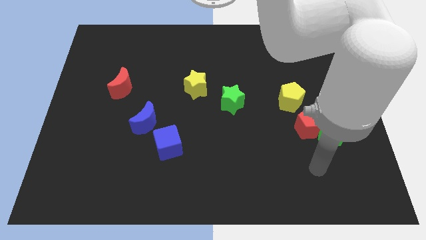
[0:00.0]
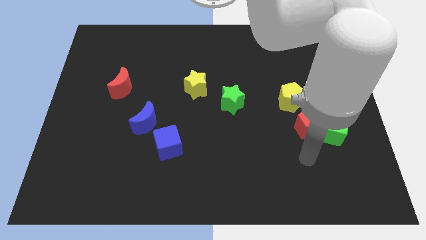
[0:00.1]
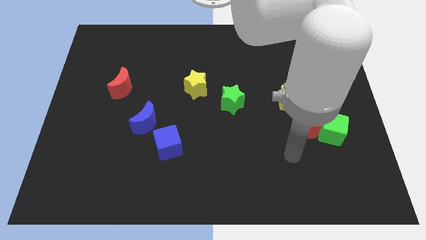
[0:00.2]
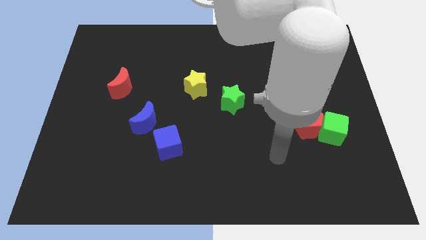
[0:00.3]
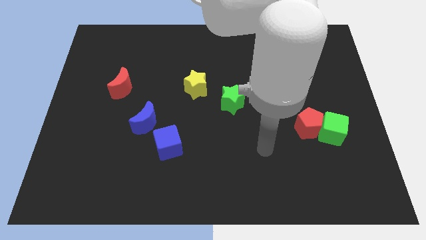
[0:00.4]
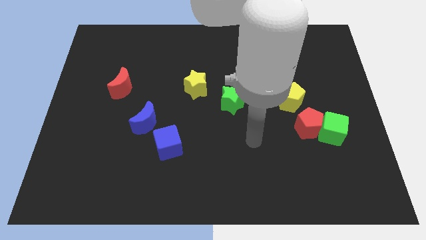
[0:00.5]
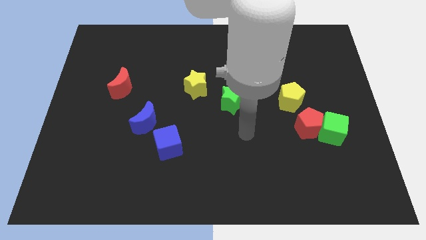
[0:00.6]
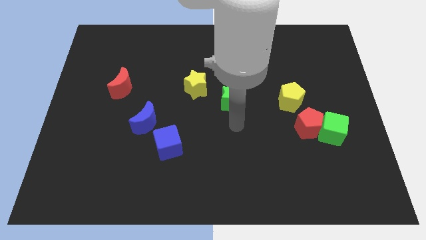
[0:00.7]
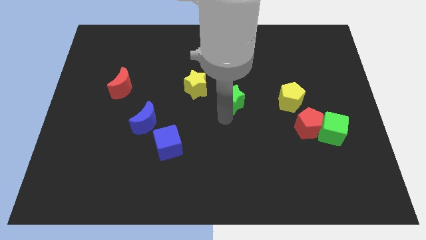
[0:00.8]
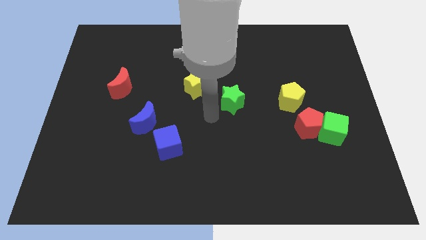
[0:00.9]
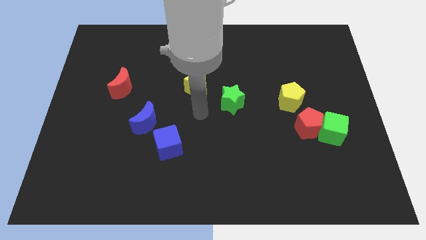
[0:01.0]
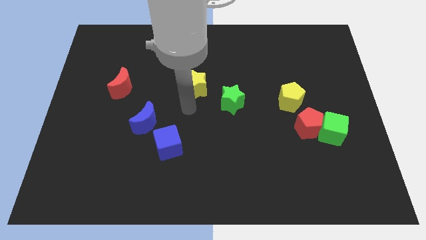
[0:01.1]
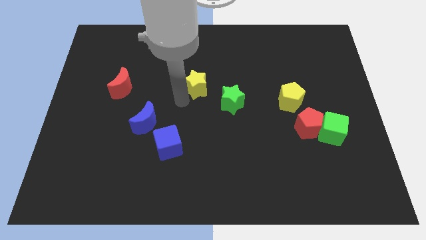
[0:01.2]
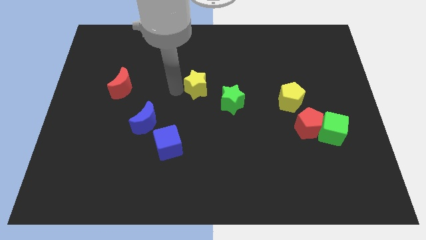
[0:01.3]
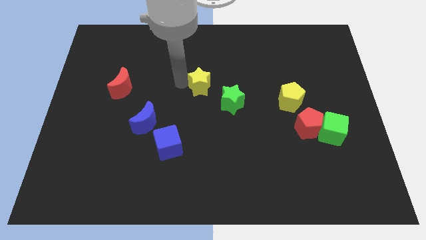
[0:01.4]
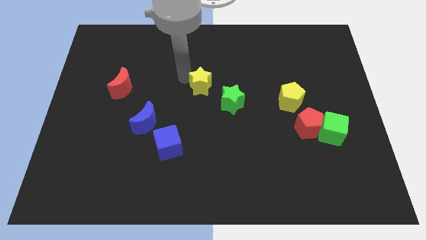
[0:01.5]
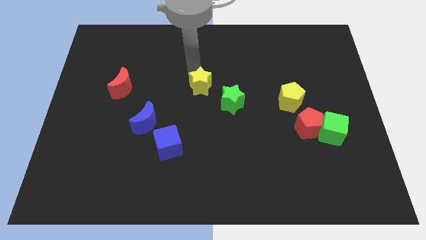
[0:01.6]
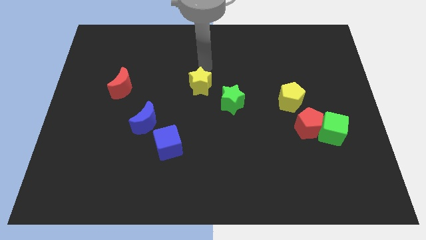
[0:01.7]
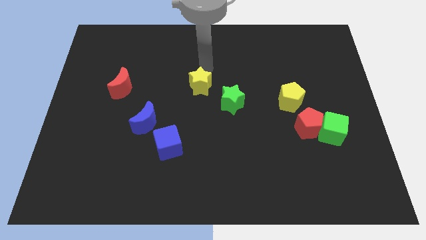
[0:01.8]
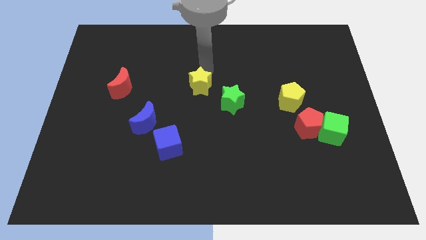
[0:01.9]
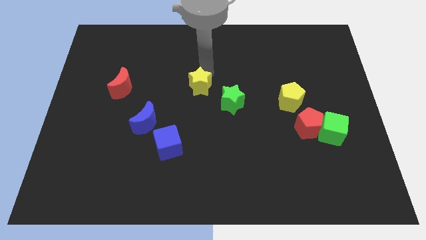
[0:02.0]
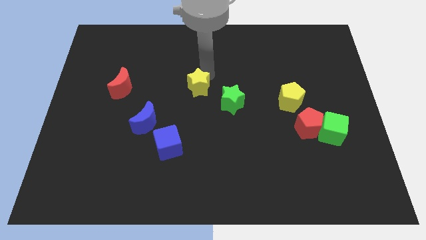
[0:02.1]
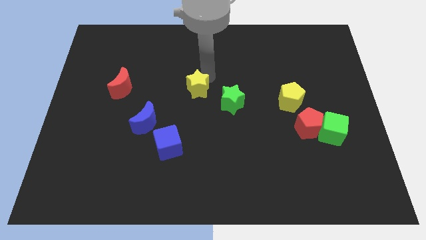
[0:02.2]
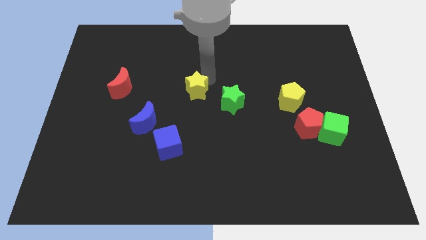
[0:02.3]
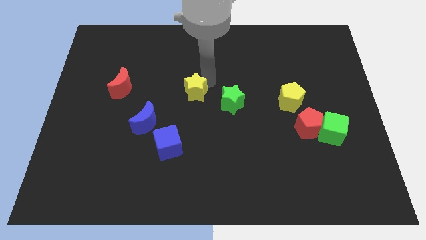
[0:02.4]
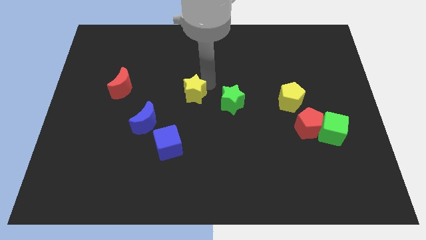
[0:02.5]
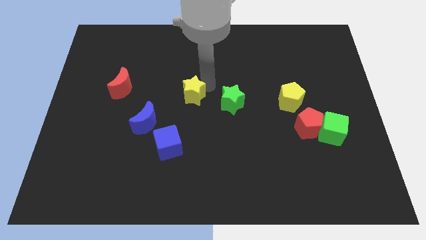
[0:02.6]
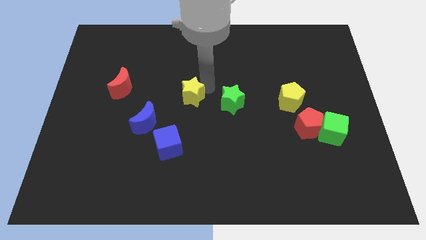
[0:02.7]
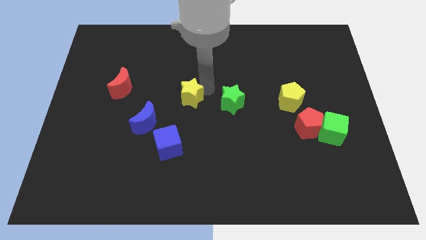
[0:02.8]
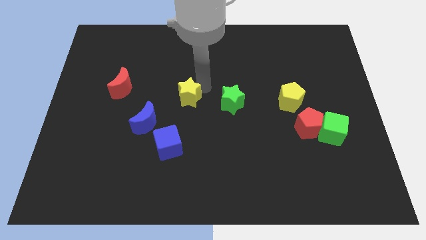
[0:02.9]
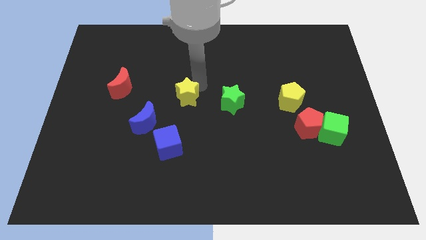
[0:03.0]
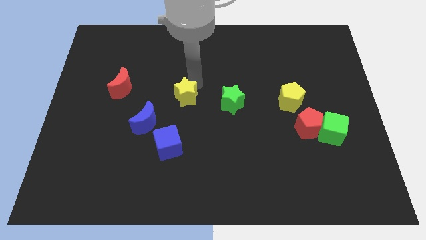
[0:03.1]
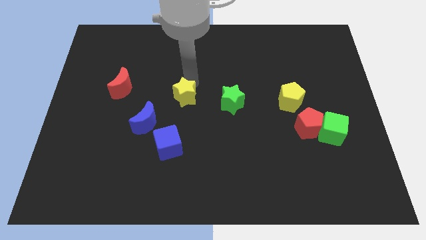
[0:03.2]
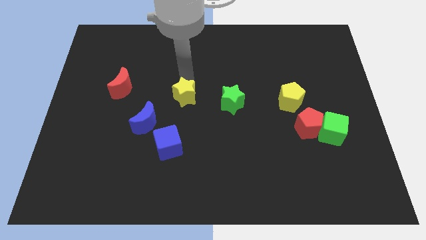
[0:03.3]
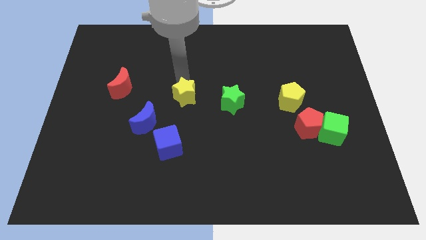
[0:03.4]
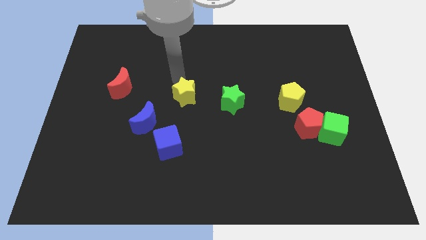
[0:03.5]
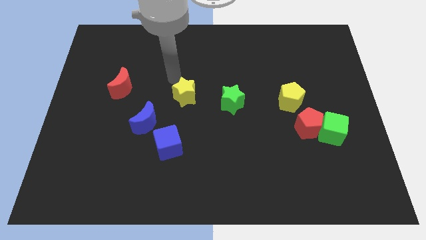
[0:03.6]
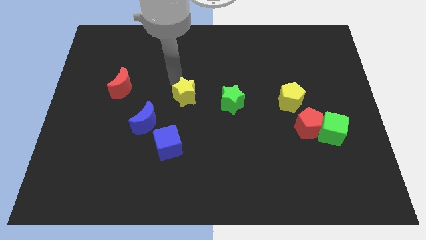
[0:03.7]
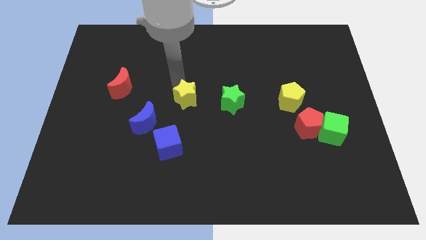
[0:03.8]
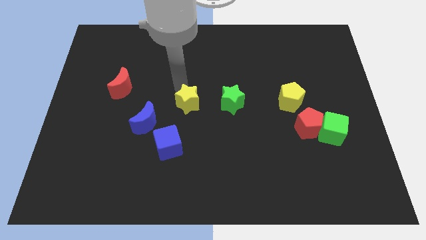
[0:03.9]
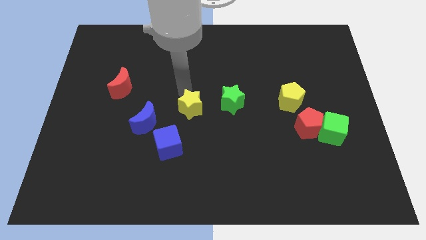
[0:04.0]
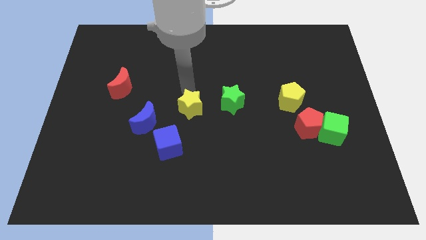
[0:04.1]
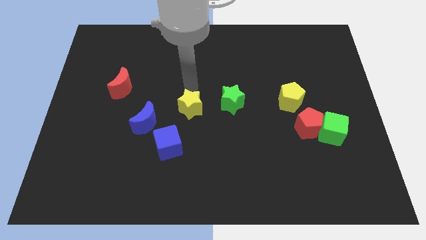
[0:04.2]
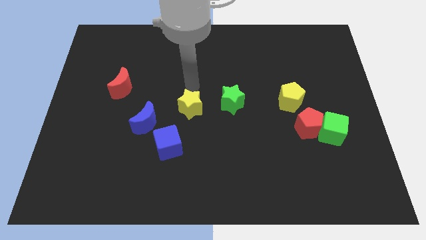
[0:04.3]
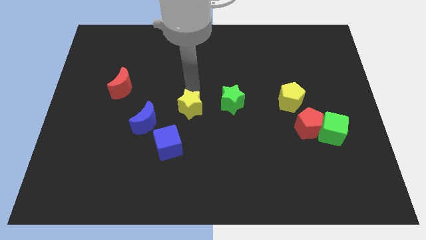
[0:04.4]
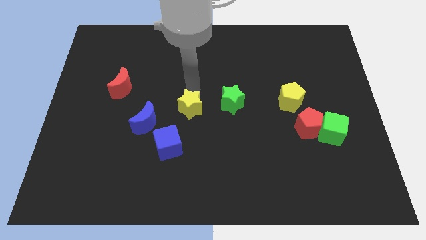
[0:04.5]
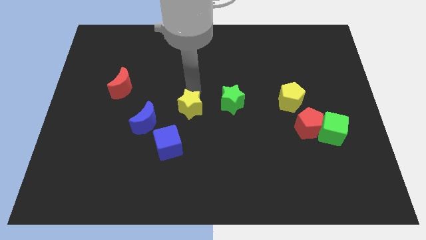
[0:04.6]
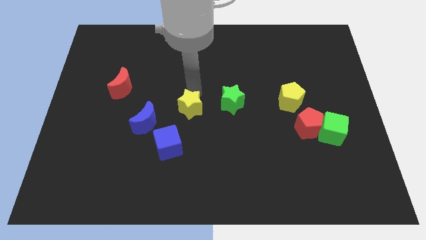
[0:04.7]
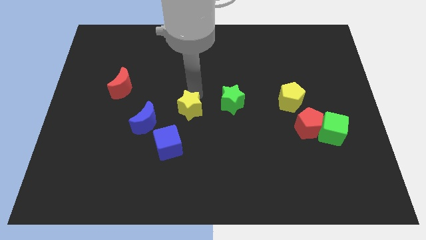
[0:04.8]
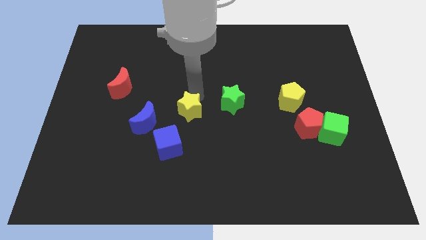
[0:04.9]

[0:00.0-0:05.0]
slide the yellow star a bit downwards

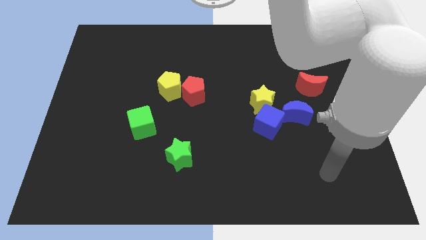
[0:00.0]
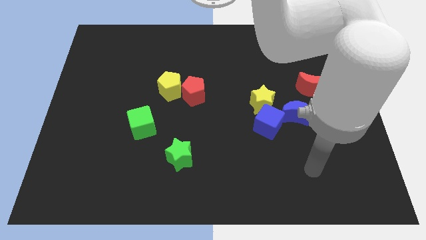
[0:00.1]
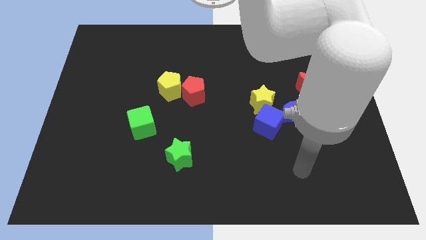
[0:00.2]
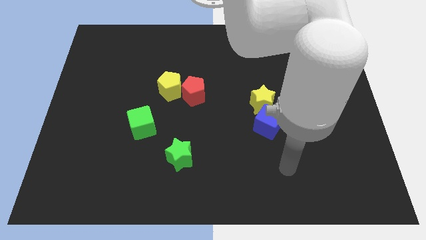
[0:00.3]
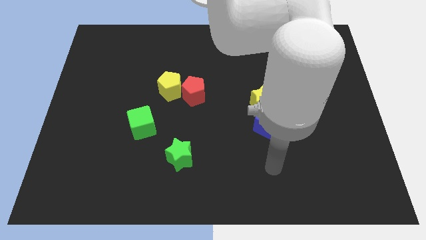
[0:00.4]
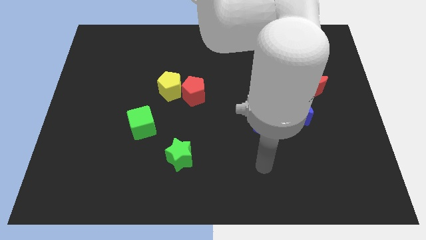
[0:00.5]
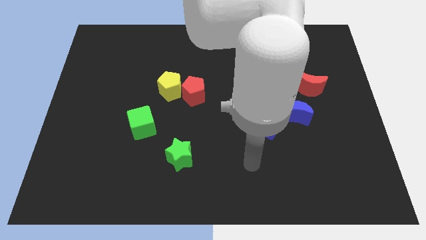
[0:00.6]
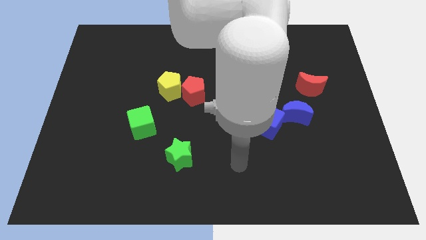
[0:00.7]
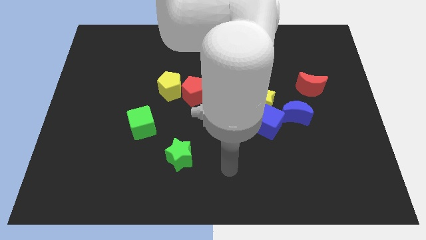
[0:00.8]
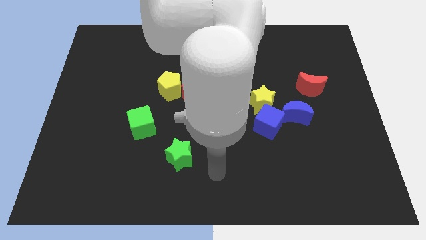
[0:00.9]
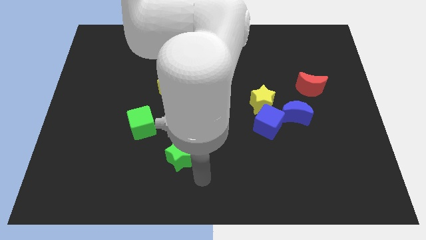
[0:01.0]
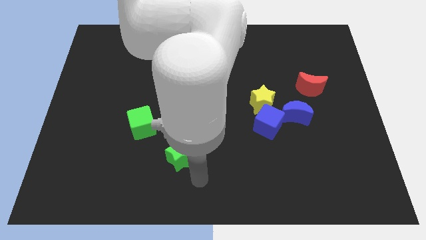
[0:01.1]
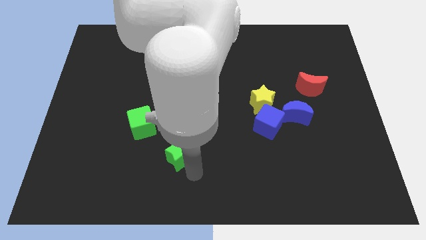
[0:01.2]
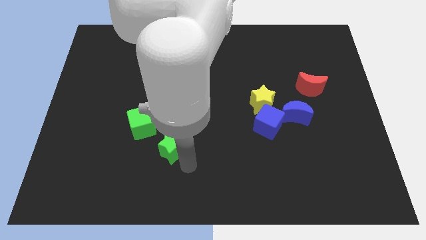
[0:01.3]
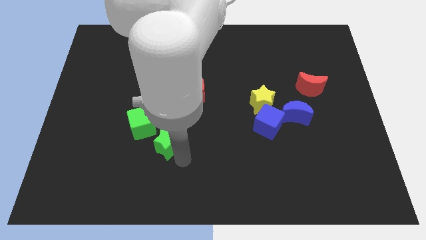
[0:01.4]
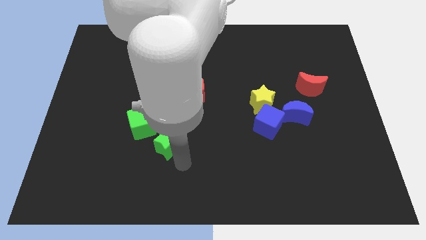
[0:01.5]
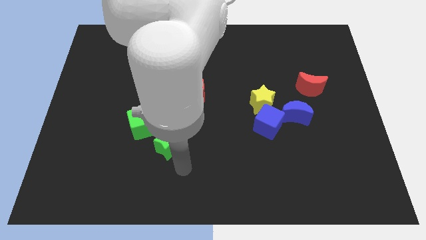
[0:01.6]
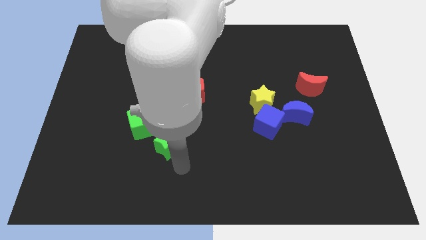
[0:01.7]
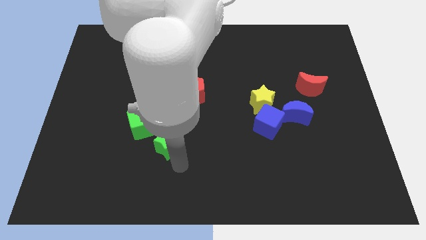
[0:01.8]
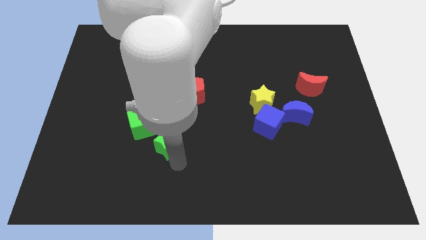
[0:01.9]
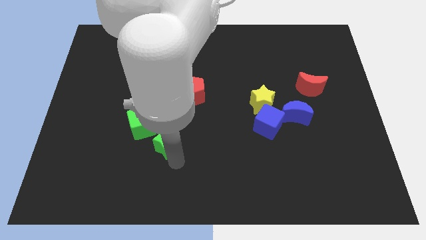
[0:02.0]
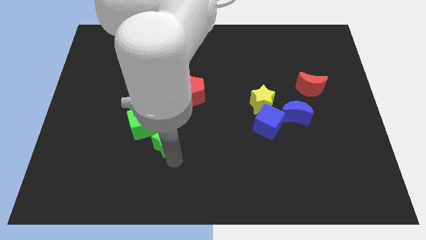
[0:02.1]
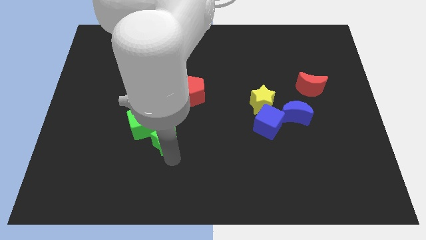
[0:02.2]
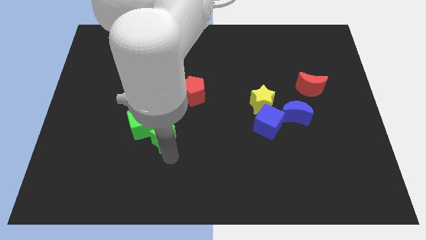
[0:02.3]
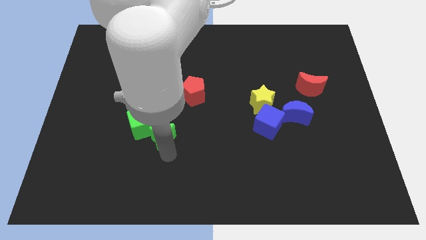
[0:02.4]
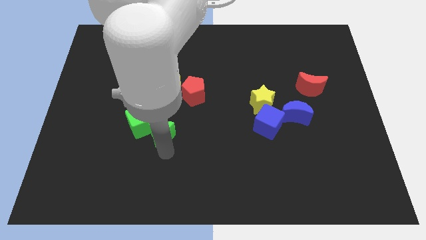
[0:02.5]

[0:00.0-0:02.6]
move the green star a little bit upwards and left

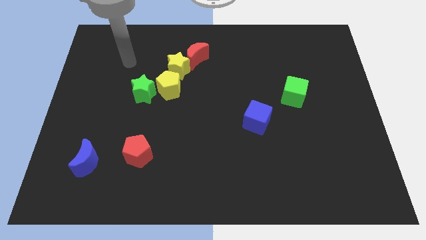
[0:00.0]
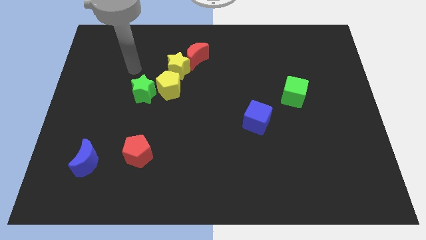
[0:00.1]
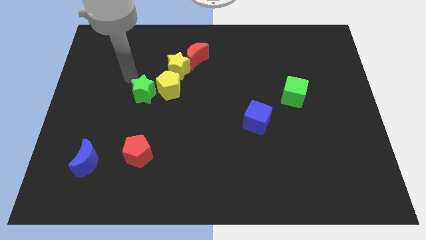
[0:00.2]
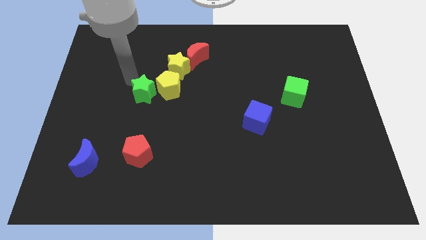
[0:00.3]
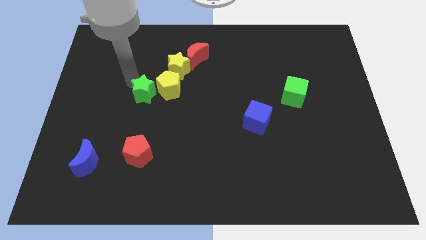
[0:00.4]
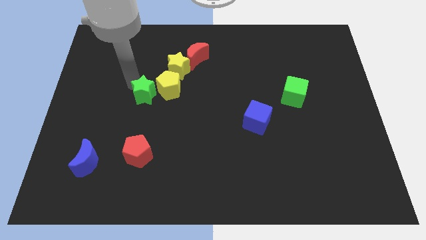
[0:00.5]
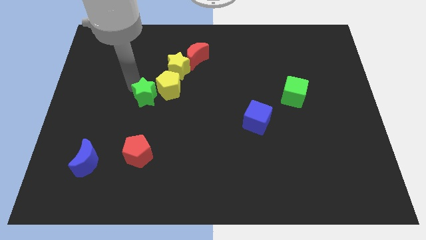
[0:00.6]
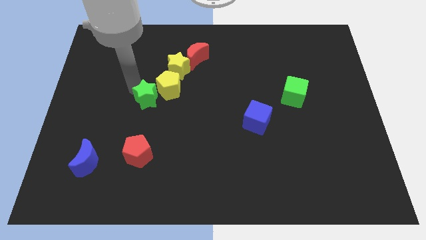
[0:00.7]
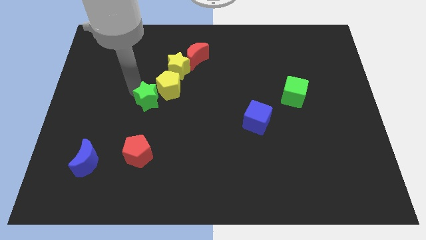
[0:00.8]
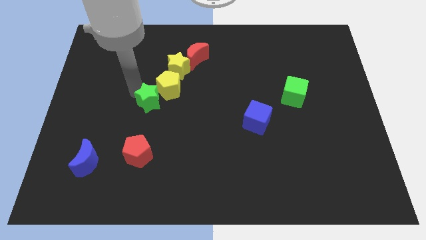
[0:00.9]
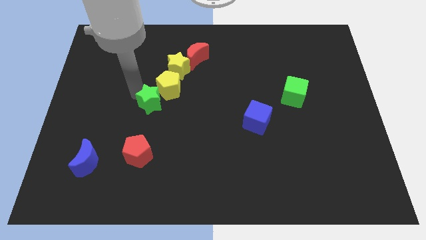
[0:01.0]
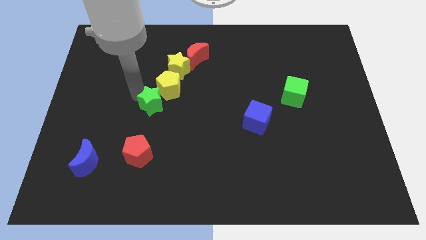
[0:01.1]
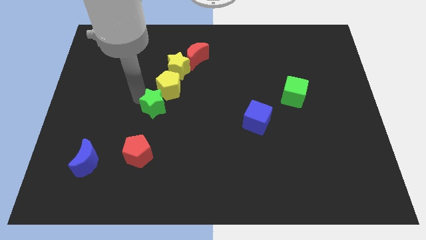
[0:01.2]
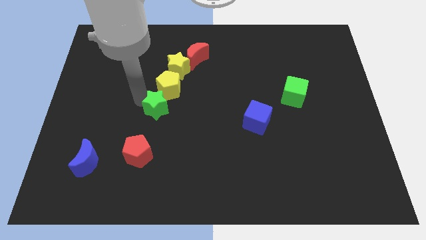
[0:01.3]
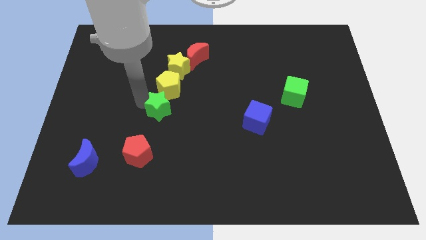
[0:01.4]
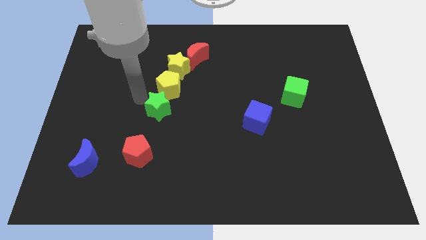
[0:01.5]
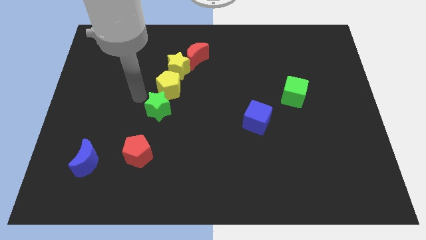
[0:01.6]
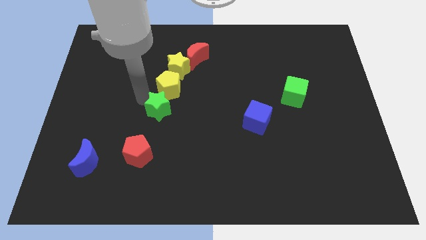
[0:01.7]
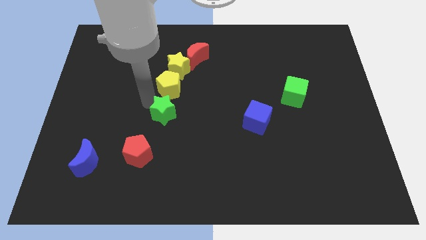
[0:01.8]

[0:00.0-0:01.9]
move the green star a bit downwards and then to the right
